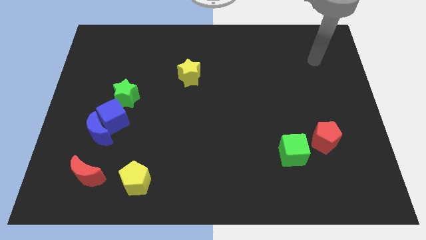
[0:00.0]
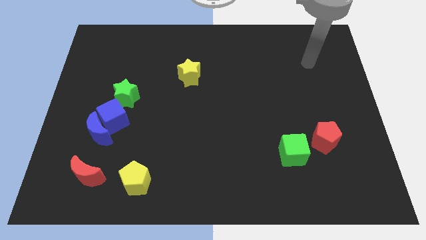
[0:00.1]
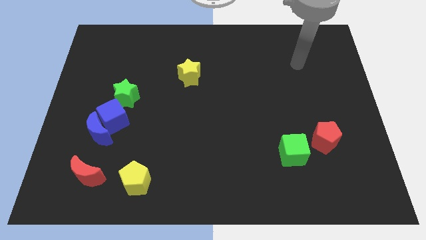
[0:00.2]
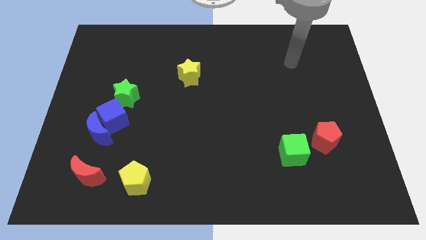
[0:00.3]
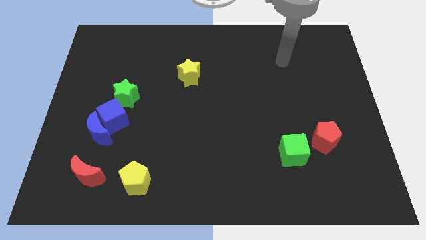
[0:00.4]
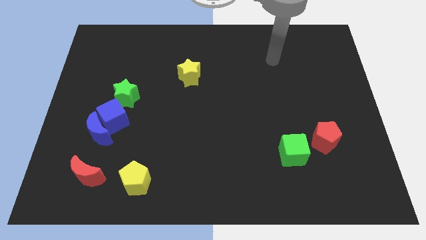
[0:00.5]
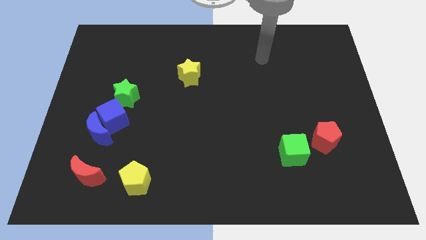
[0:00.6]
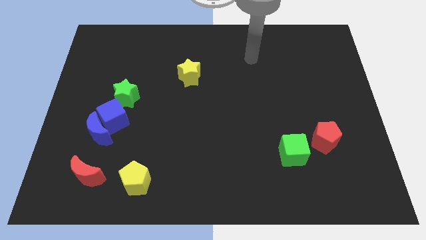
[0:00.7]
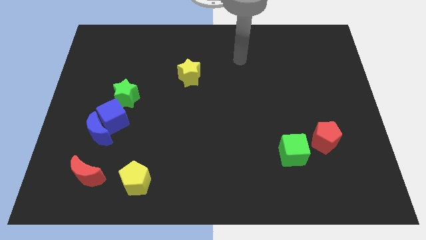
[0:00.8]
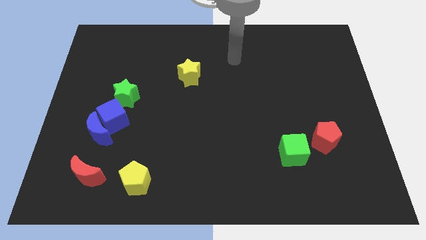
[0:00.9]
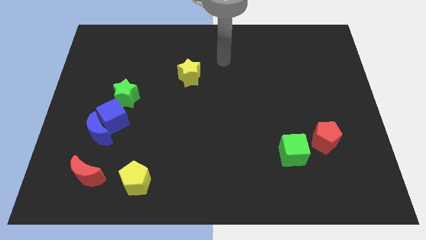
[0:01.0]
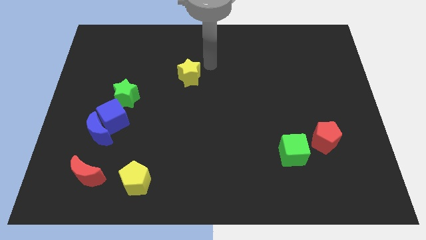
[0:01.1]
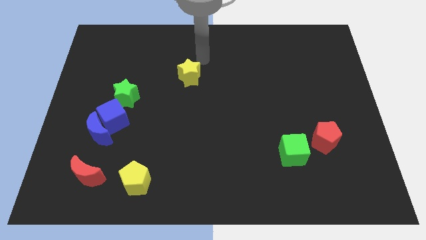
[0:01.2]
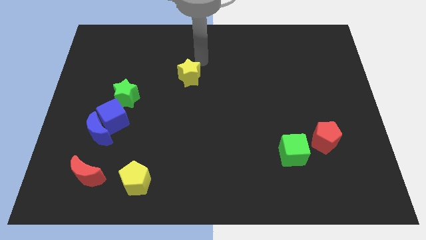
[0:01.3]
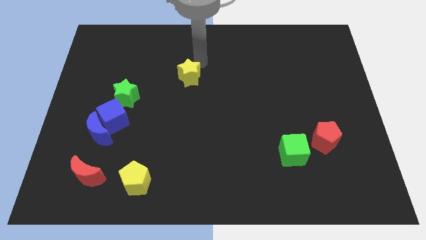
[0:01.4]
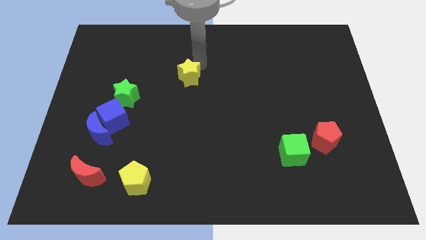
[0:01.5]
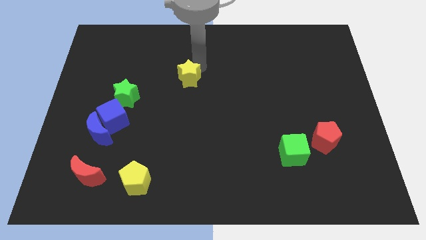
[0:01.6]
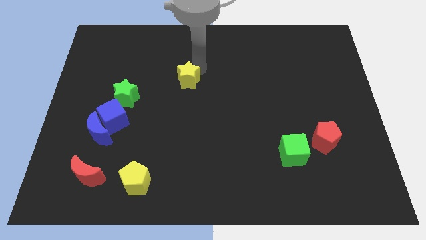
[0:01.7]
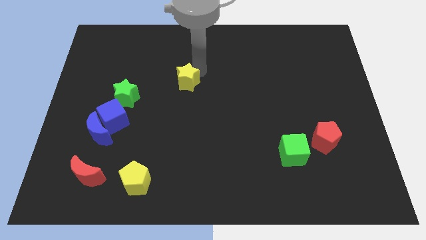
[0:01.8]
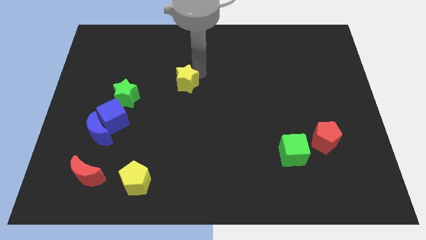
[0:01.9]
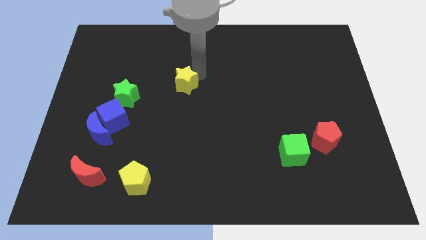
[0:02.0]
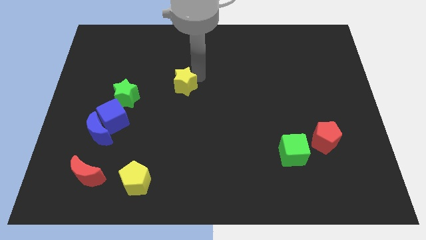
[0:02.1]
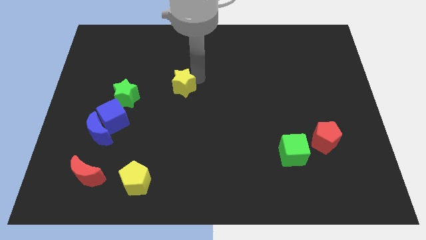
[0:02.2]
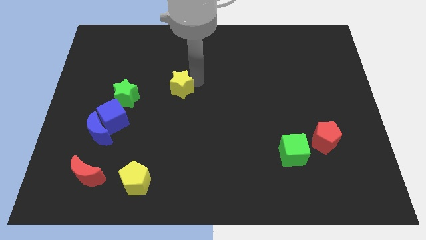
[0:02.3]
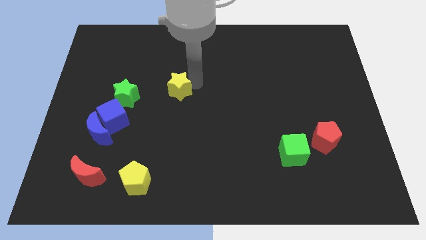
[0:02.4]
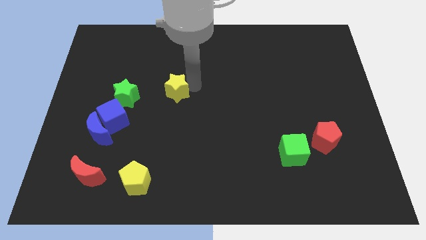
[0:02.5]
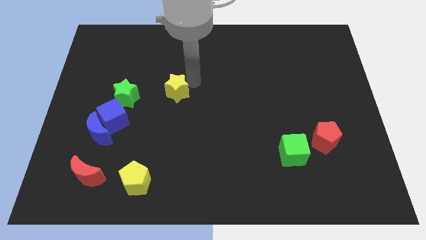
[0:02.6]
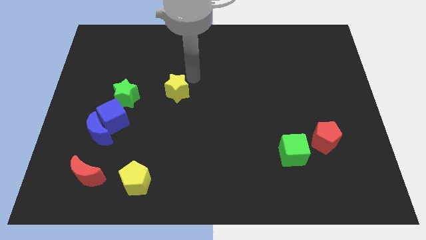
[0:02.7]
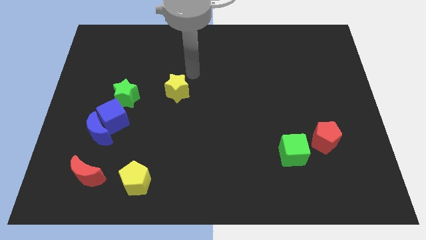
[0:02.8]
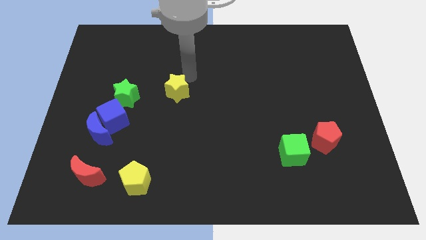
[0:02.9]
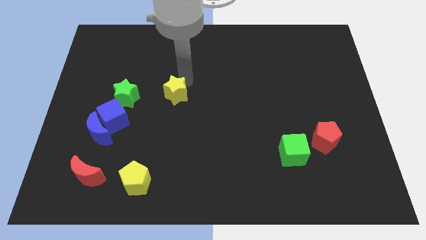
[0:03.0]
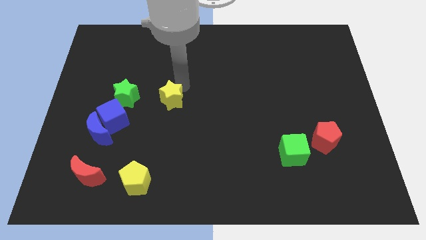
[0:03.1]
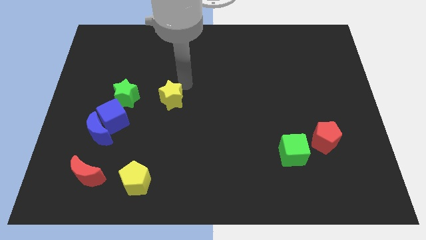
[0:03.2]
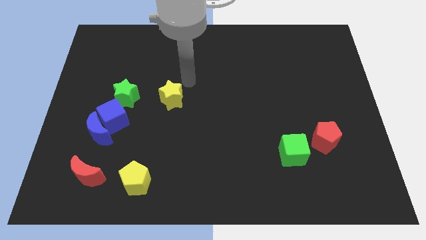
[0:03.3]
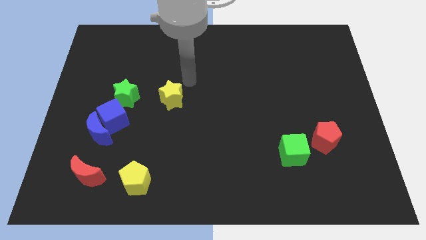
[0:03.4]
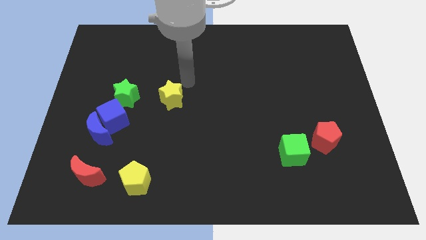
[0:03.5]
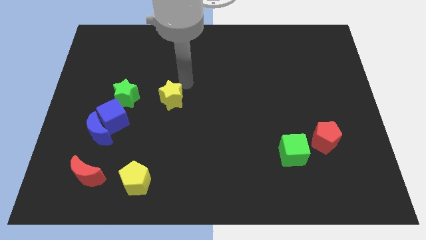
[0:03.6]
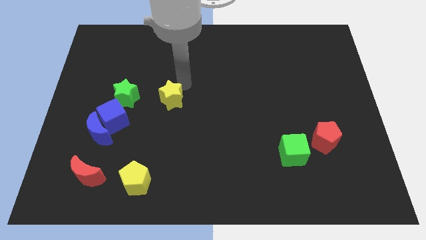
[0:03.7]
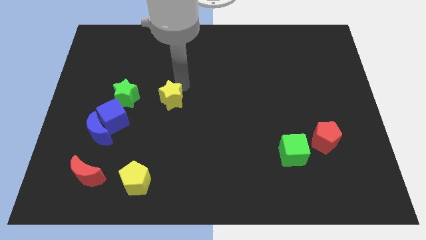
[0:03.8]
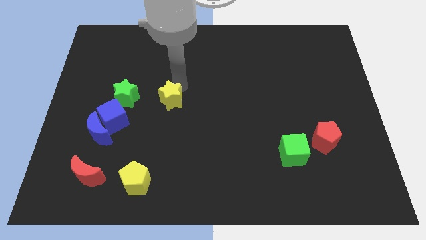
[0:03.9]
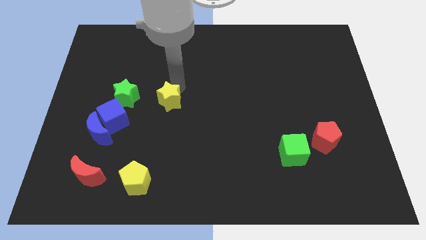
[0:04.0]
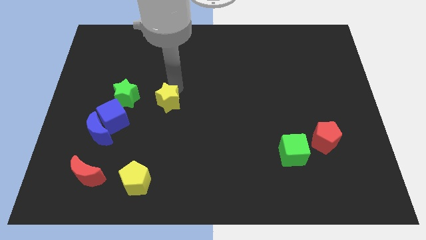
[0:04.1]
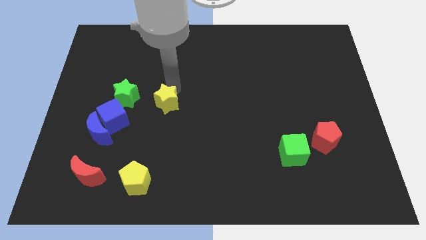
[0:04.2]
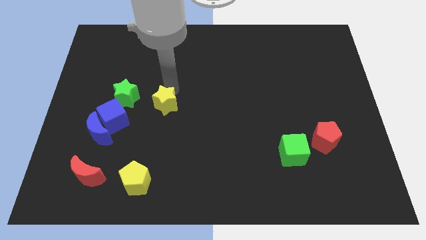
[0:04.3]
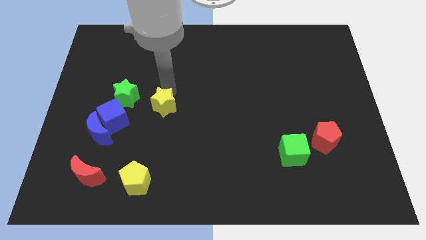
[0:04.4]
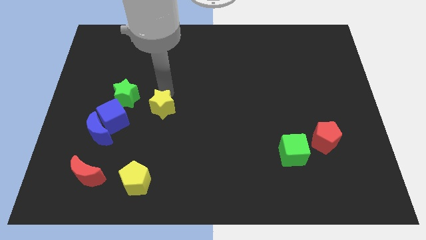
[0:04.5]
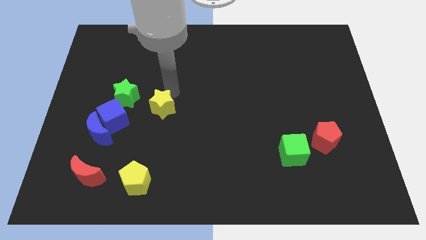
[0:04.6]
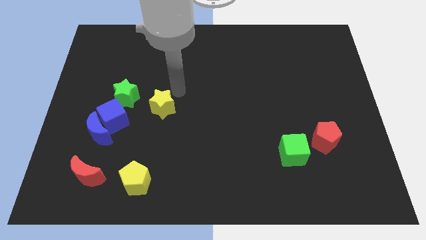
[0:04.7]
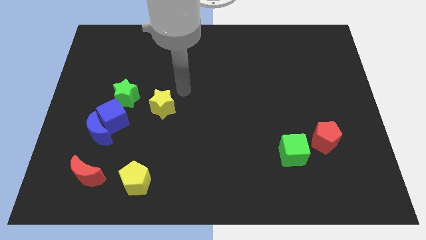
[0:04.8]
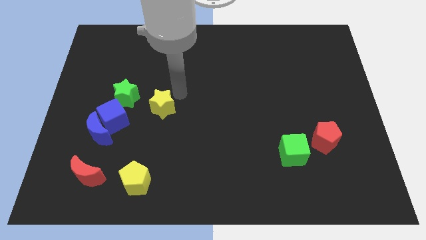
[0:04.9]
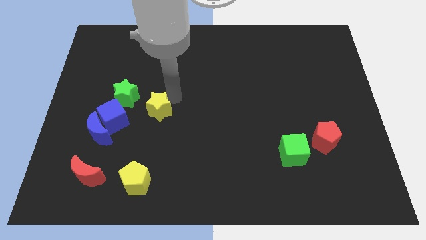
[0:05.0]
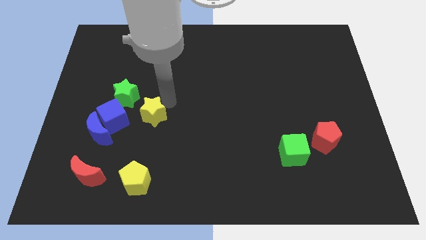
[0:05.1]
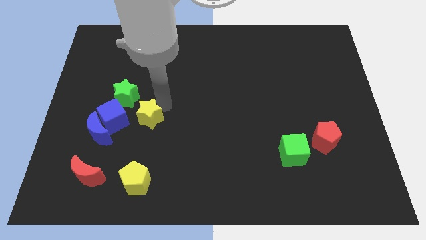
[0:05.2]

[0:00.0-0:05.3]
slide the yellow star to the top side of the yellow pentagon

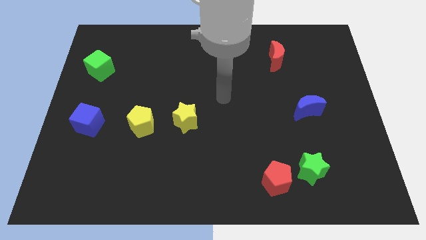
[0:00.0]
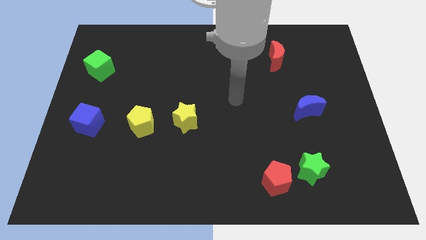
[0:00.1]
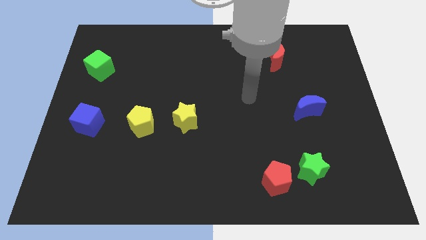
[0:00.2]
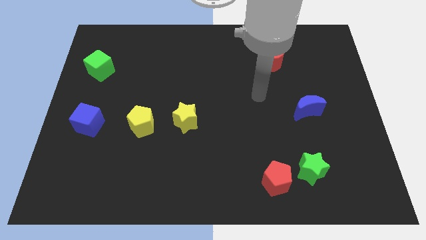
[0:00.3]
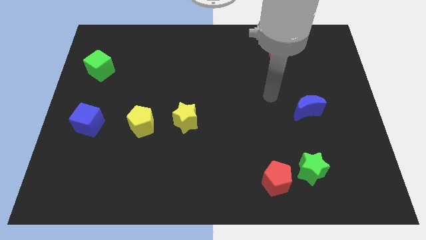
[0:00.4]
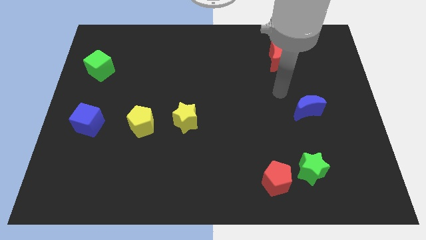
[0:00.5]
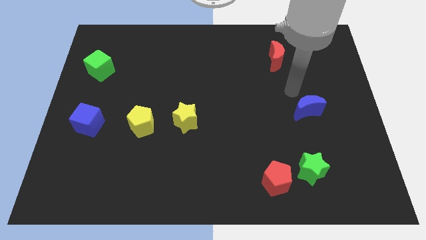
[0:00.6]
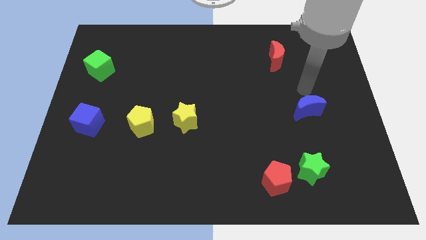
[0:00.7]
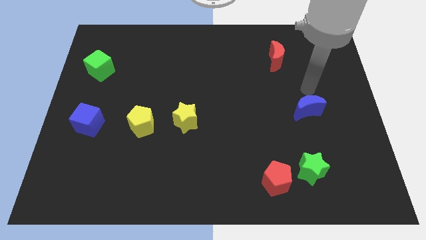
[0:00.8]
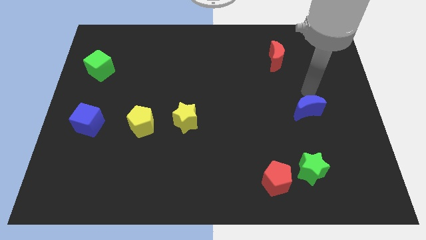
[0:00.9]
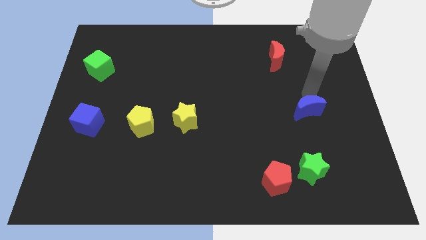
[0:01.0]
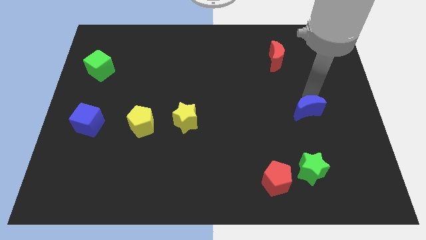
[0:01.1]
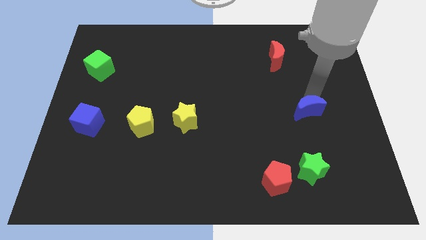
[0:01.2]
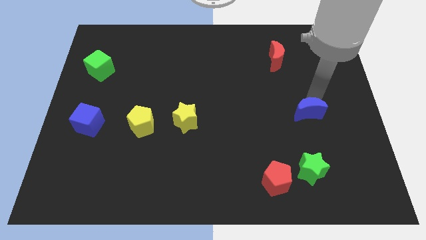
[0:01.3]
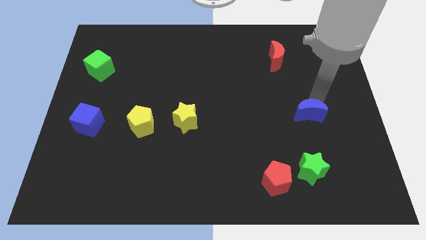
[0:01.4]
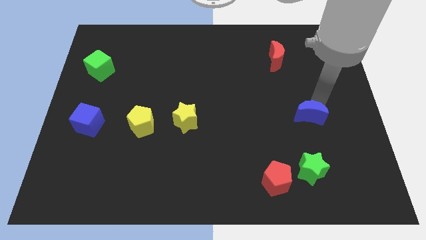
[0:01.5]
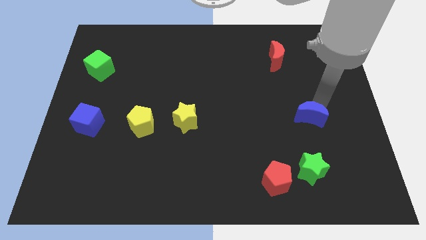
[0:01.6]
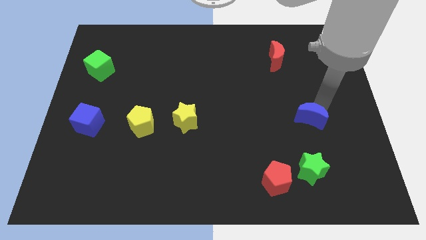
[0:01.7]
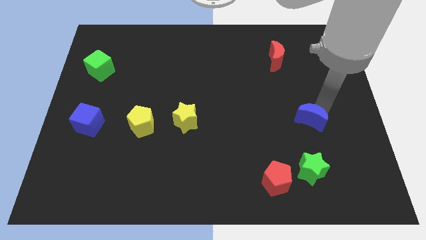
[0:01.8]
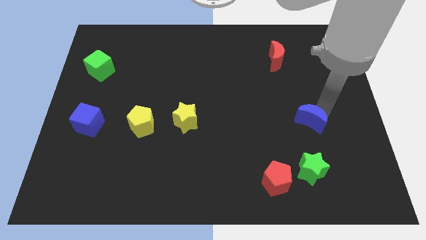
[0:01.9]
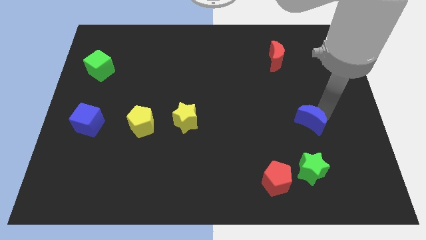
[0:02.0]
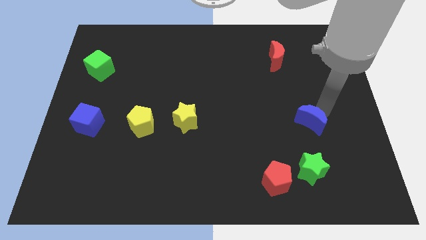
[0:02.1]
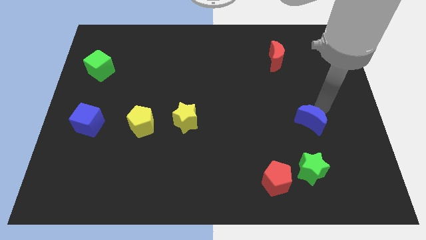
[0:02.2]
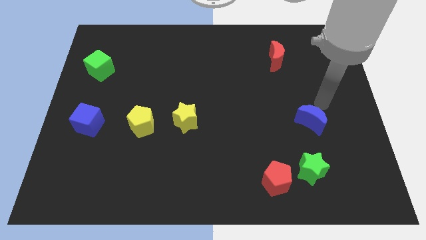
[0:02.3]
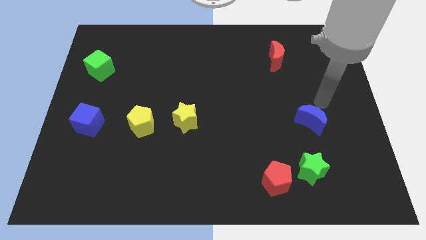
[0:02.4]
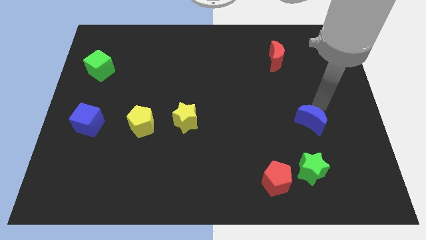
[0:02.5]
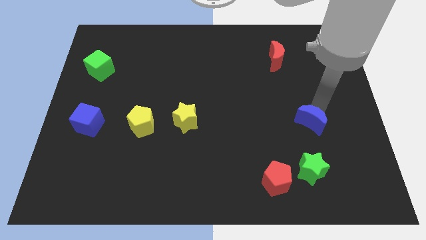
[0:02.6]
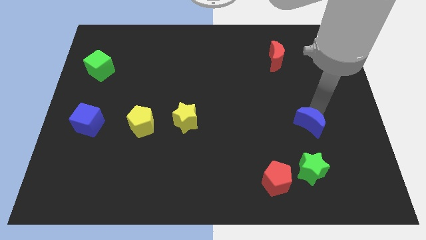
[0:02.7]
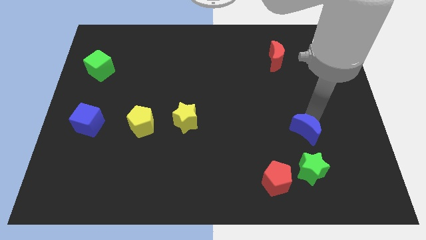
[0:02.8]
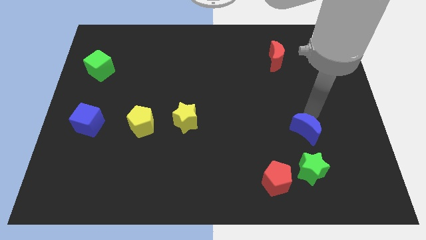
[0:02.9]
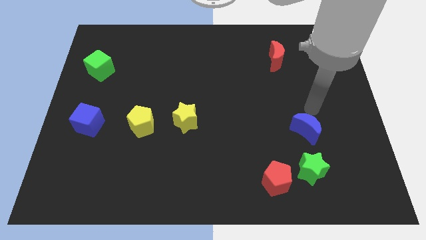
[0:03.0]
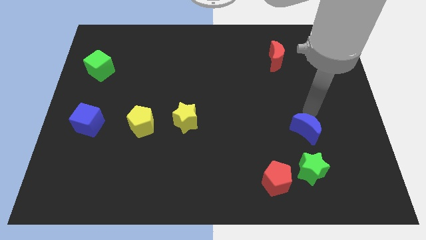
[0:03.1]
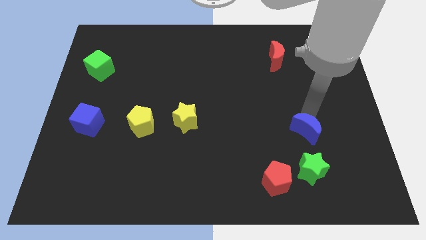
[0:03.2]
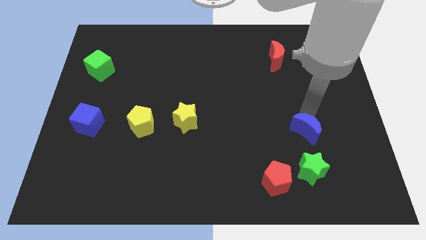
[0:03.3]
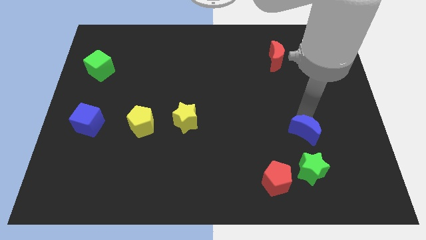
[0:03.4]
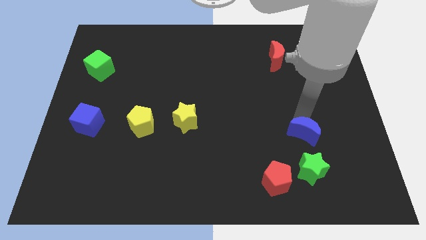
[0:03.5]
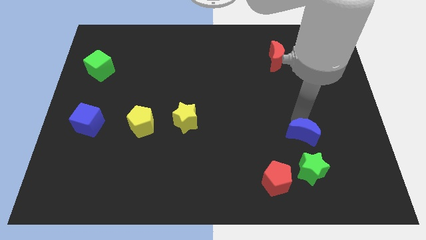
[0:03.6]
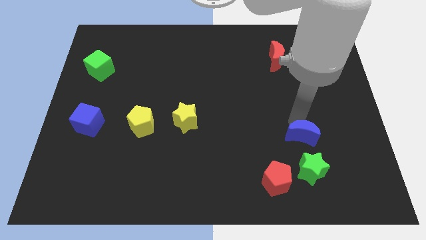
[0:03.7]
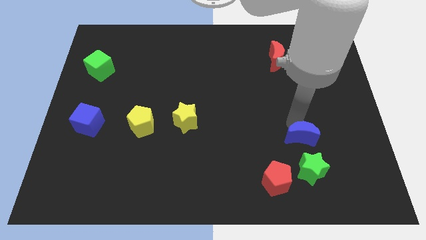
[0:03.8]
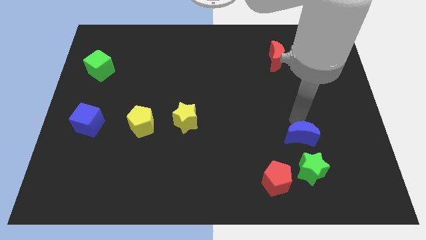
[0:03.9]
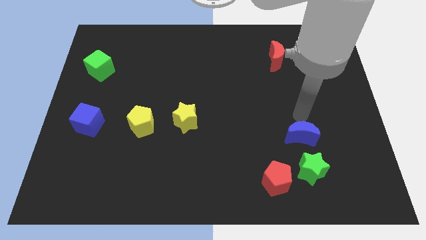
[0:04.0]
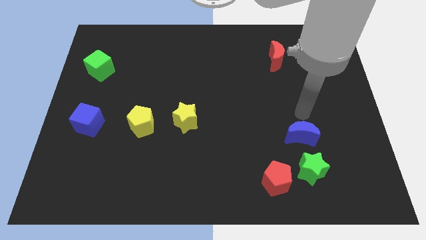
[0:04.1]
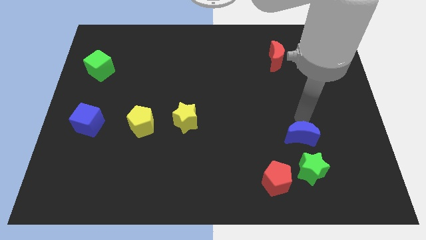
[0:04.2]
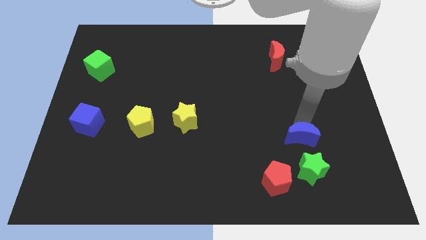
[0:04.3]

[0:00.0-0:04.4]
move the blue moon to the top right of the red pentagon
